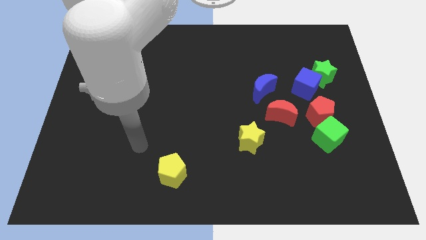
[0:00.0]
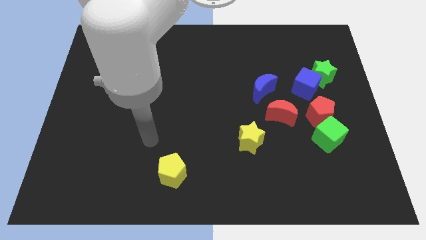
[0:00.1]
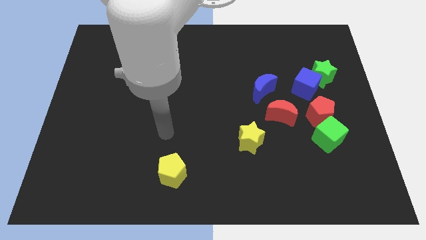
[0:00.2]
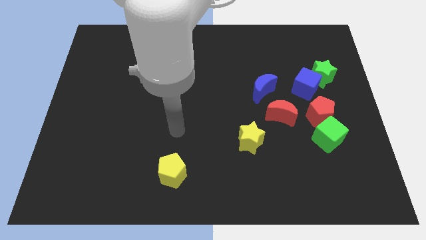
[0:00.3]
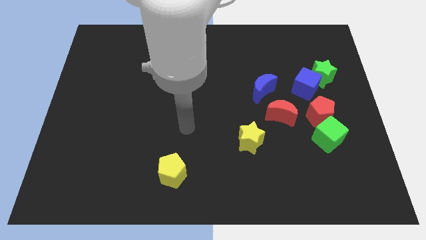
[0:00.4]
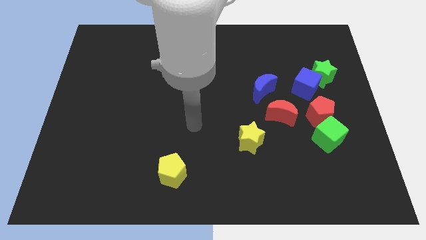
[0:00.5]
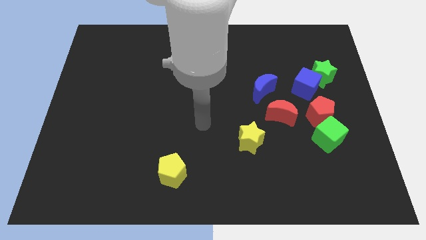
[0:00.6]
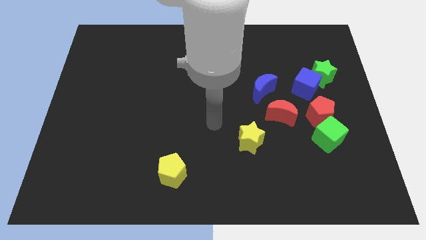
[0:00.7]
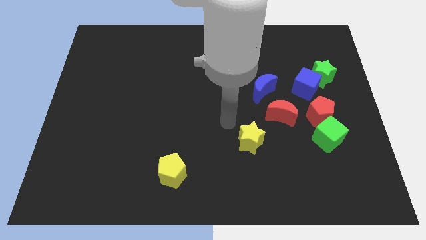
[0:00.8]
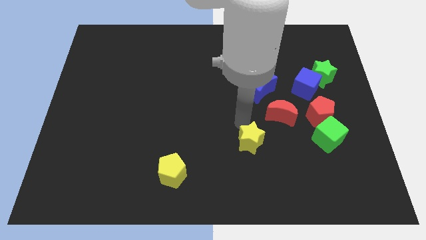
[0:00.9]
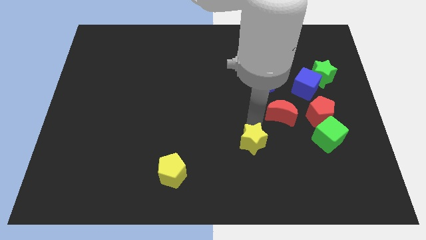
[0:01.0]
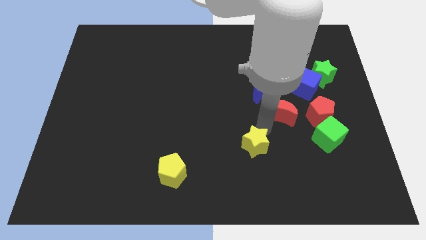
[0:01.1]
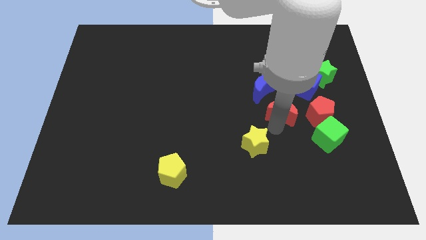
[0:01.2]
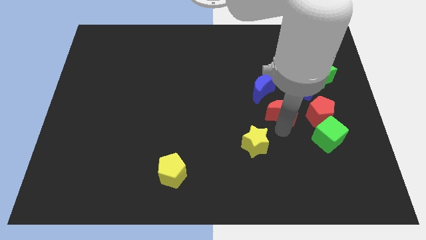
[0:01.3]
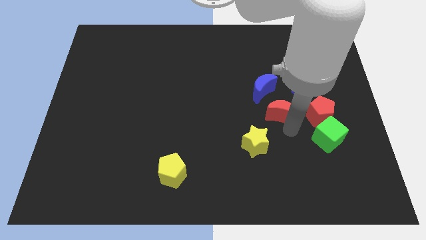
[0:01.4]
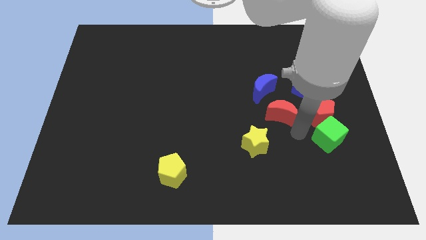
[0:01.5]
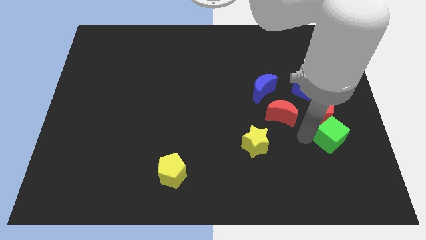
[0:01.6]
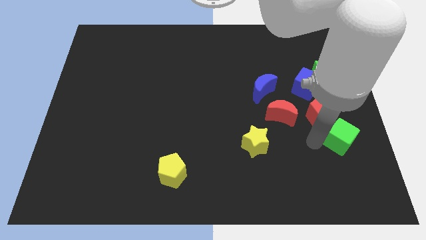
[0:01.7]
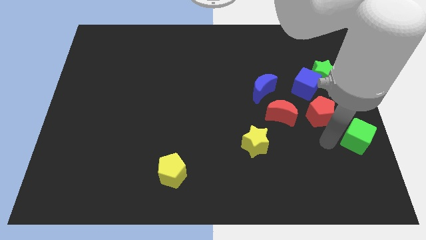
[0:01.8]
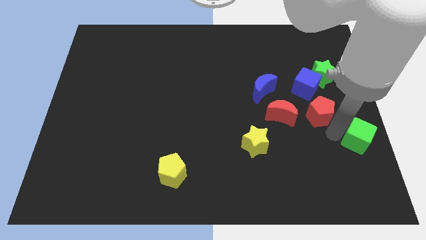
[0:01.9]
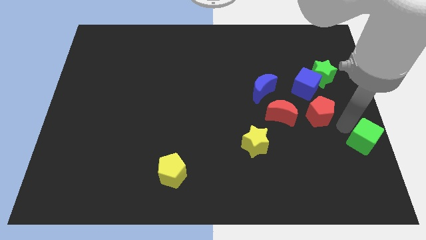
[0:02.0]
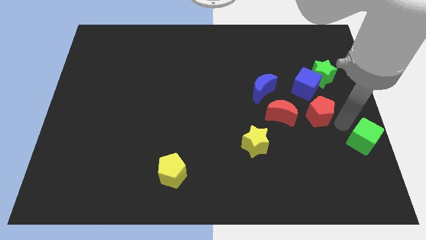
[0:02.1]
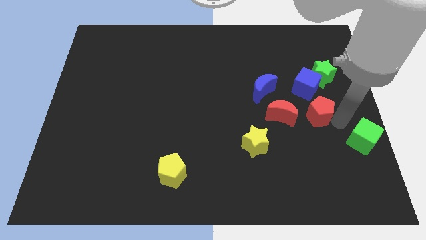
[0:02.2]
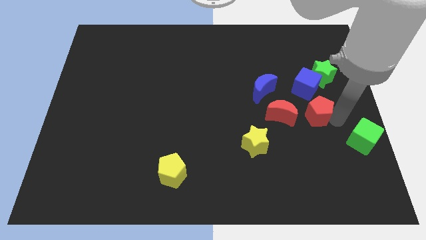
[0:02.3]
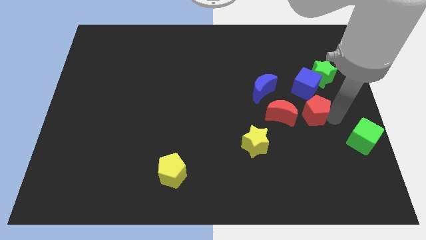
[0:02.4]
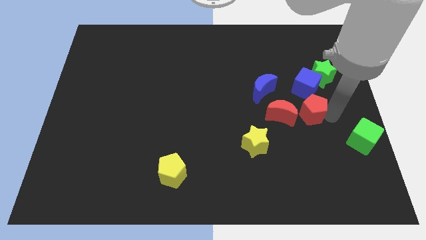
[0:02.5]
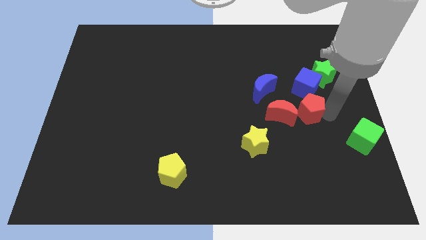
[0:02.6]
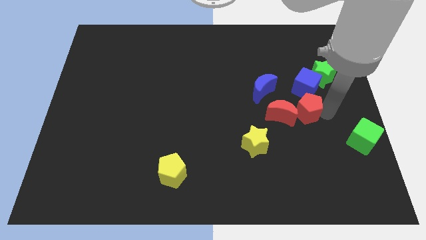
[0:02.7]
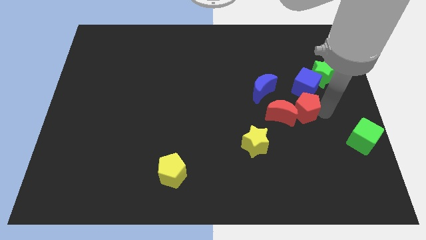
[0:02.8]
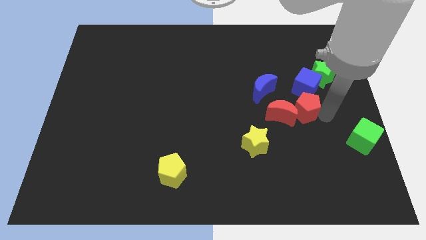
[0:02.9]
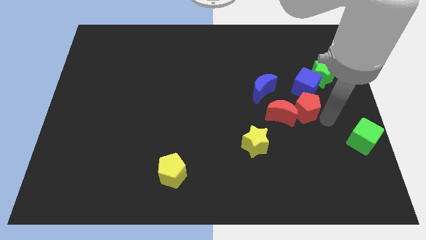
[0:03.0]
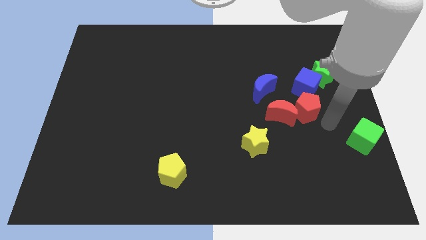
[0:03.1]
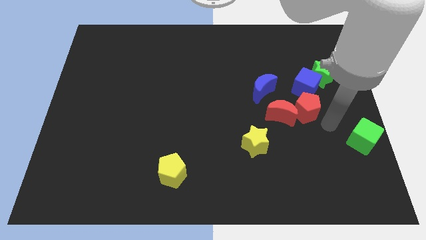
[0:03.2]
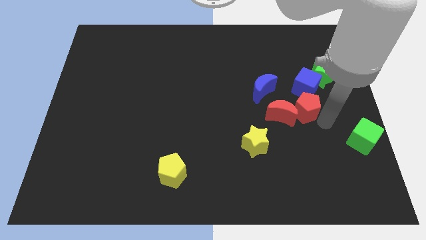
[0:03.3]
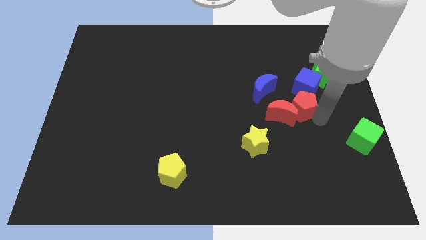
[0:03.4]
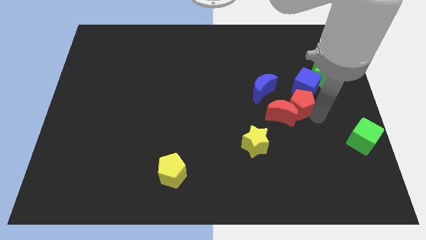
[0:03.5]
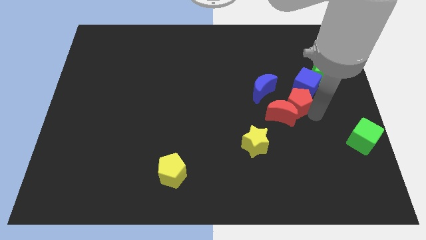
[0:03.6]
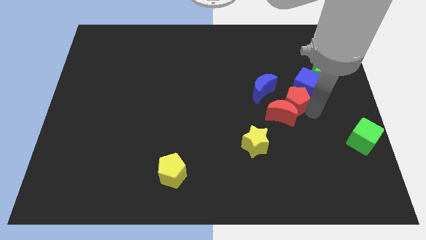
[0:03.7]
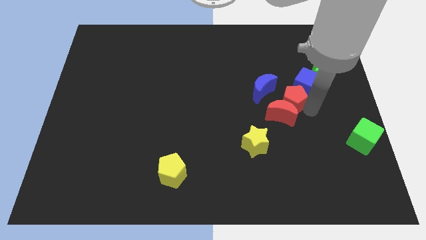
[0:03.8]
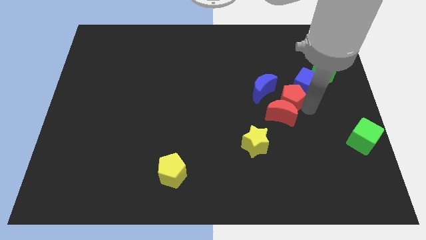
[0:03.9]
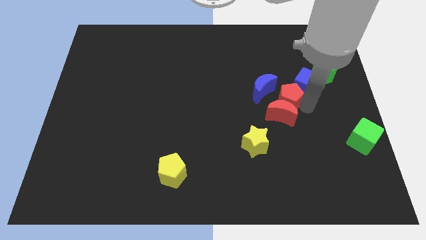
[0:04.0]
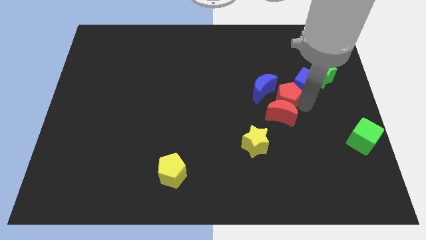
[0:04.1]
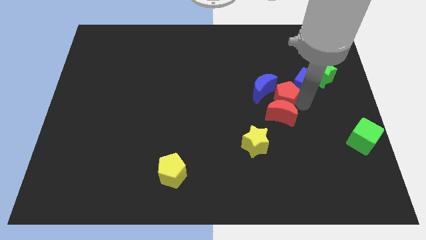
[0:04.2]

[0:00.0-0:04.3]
move the red pentagon to the left somewhat

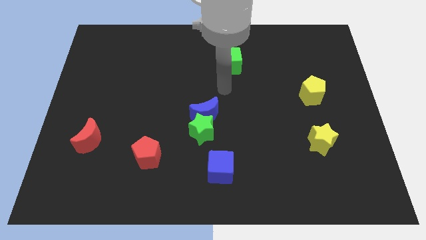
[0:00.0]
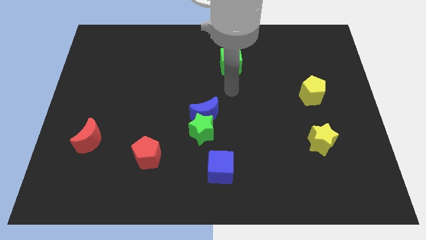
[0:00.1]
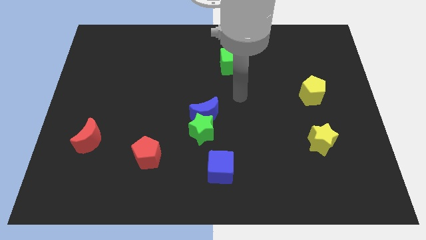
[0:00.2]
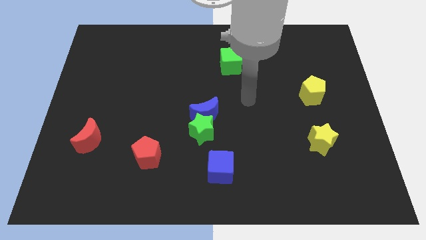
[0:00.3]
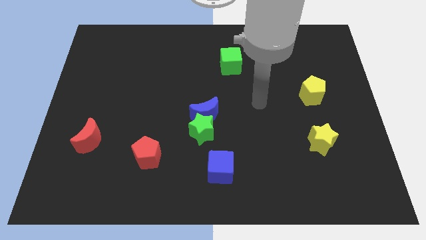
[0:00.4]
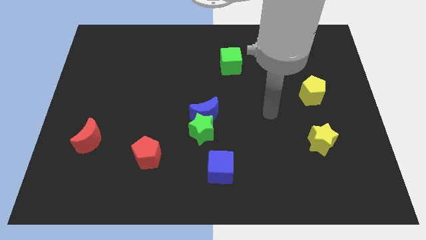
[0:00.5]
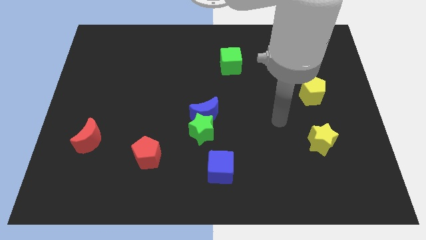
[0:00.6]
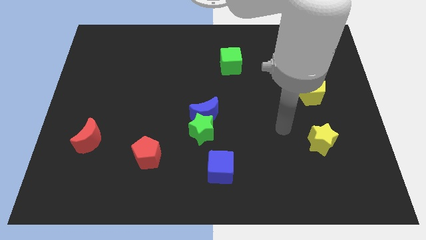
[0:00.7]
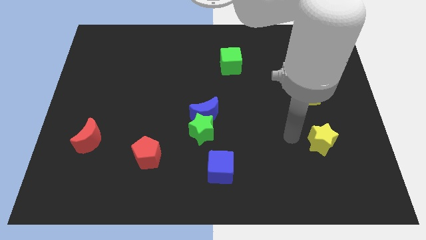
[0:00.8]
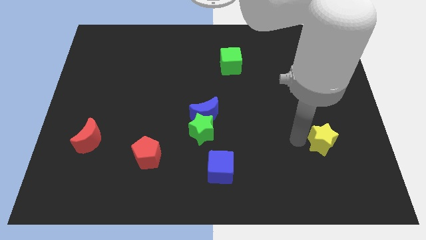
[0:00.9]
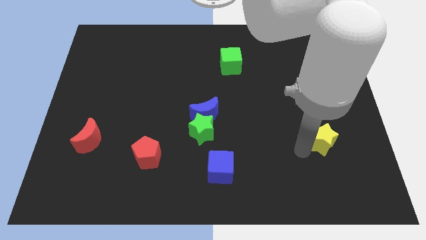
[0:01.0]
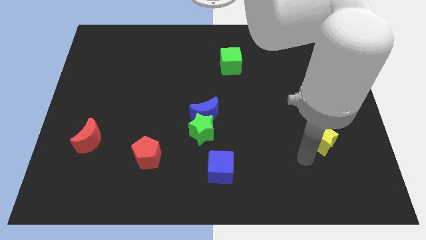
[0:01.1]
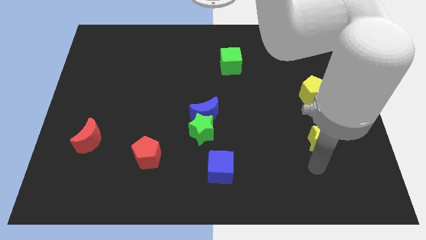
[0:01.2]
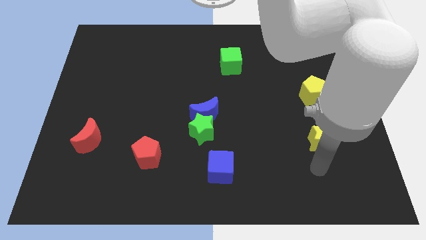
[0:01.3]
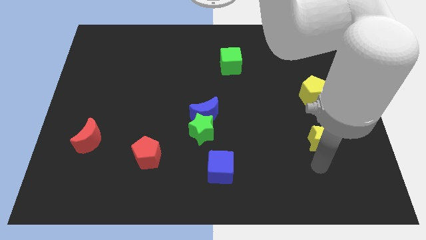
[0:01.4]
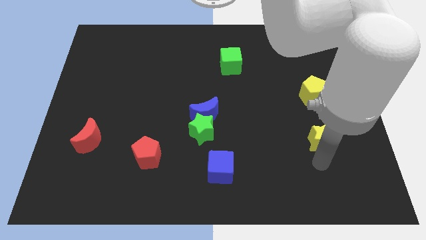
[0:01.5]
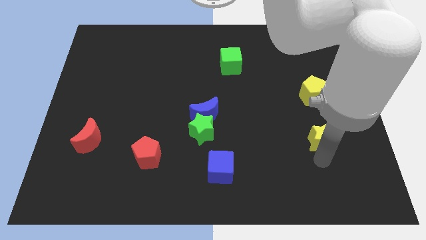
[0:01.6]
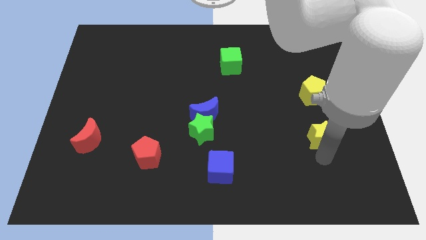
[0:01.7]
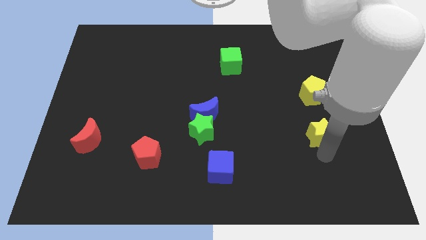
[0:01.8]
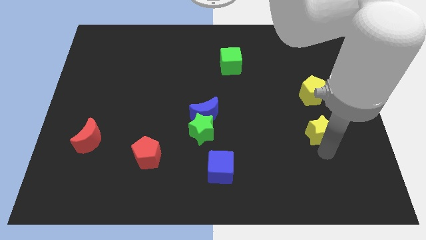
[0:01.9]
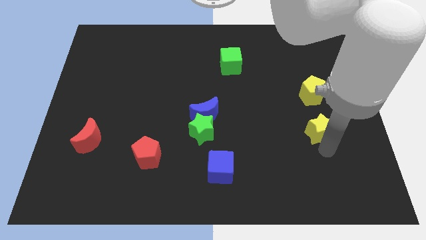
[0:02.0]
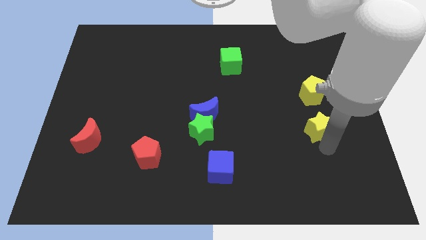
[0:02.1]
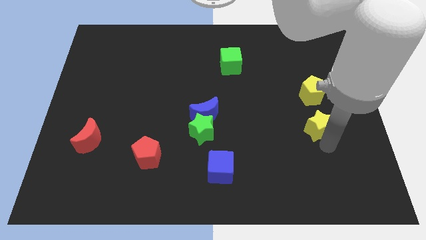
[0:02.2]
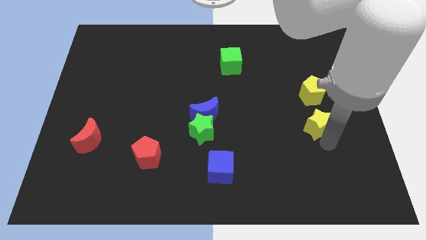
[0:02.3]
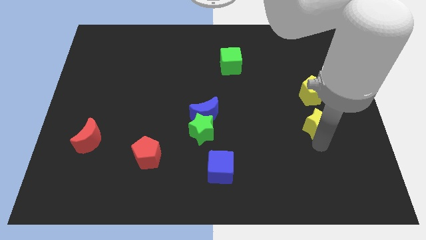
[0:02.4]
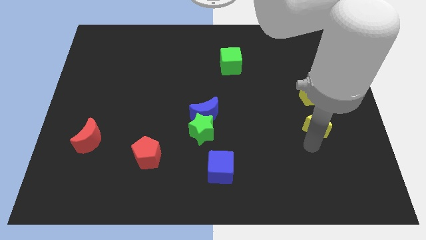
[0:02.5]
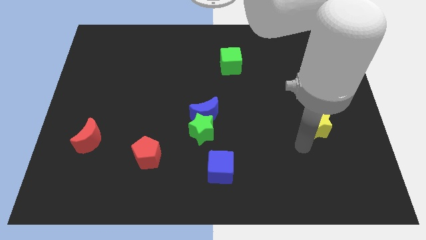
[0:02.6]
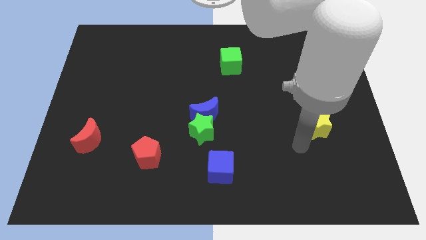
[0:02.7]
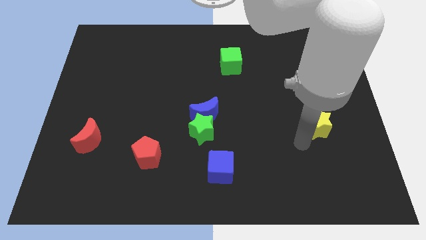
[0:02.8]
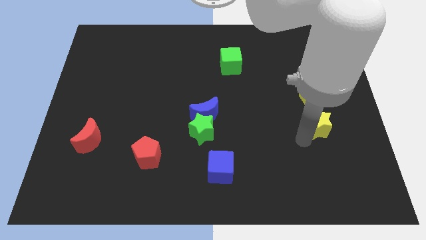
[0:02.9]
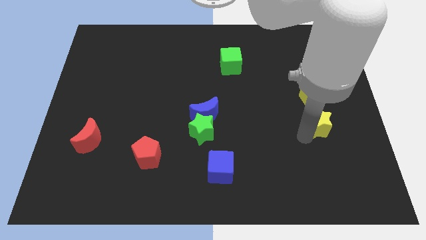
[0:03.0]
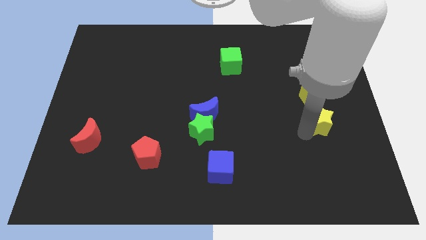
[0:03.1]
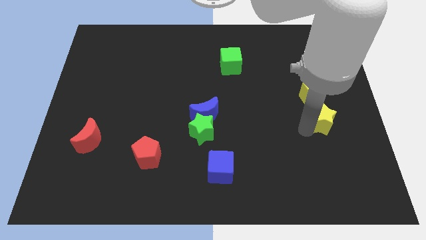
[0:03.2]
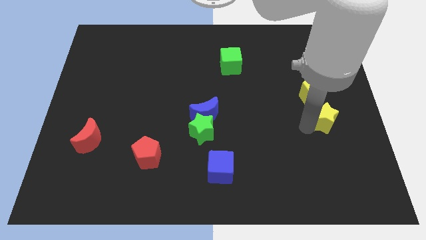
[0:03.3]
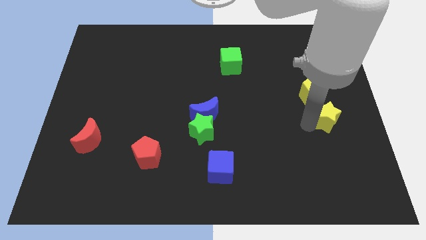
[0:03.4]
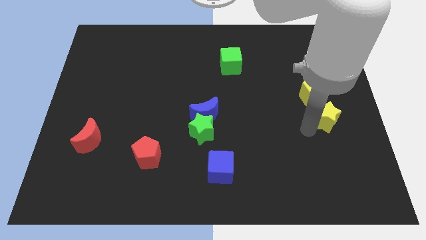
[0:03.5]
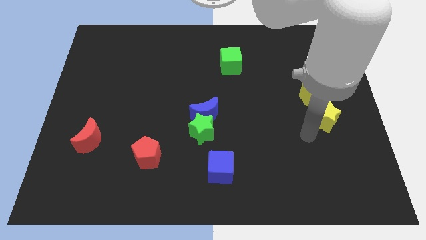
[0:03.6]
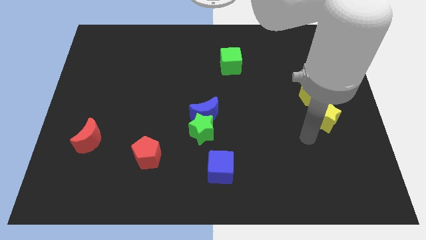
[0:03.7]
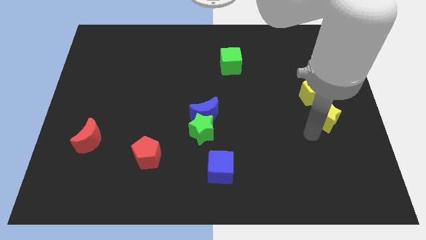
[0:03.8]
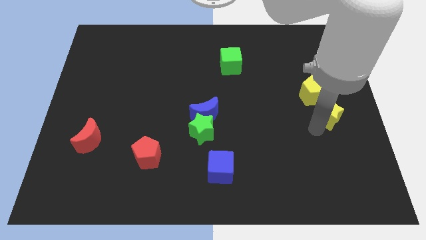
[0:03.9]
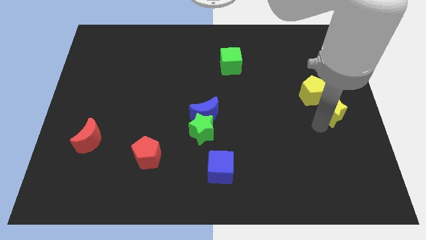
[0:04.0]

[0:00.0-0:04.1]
slightly move the yellow star up
